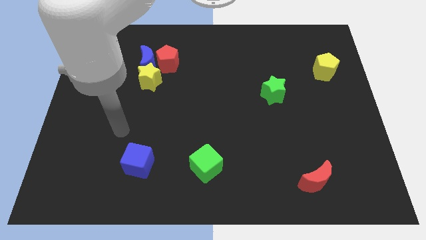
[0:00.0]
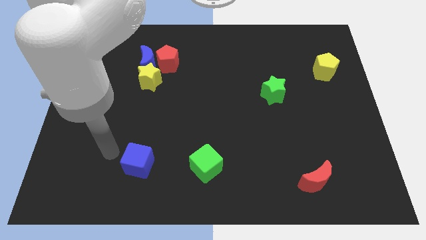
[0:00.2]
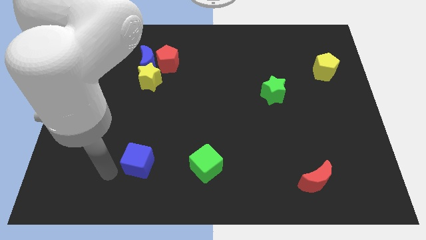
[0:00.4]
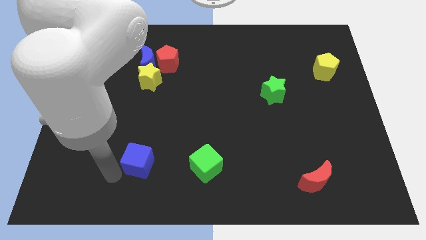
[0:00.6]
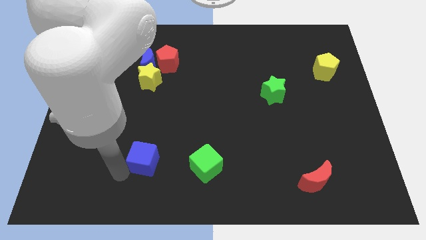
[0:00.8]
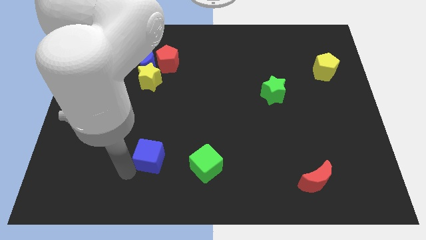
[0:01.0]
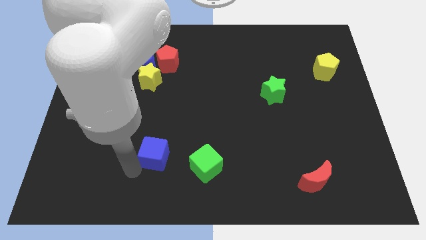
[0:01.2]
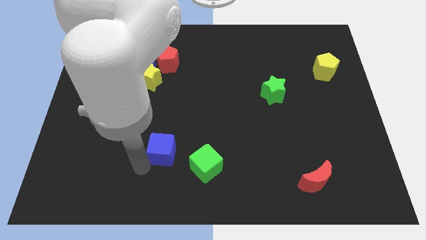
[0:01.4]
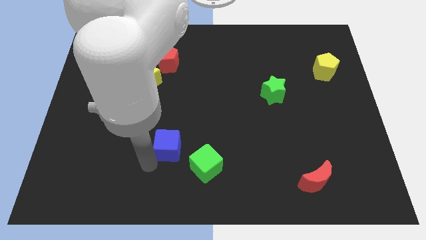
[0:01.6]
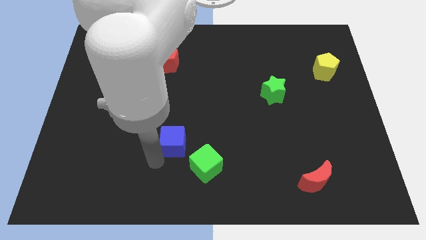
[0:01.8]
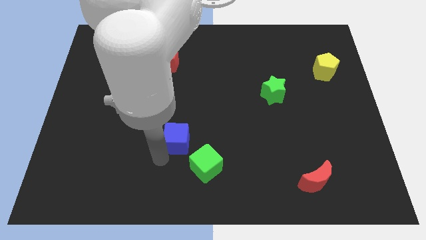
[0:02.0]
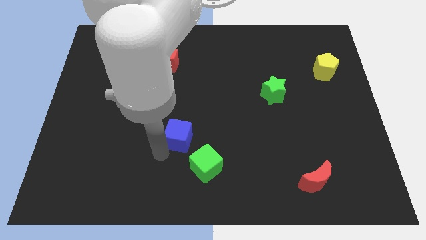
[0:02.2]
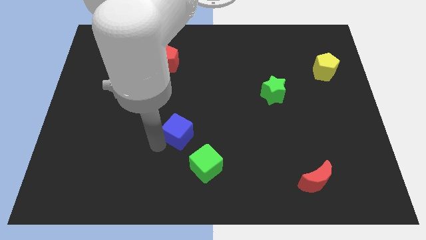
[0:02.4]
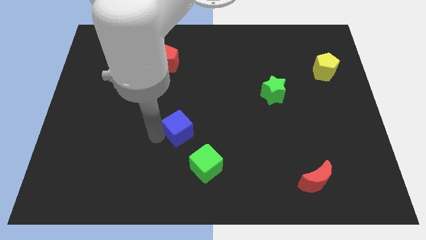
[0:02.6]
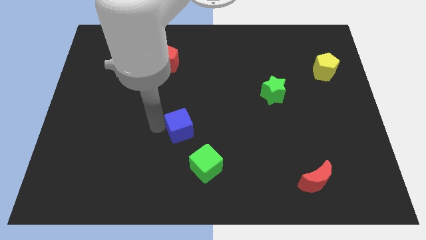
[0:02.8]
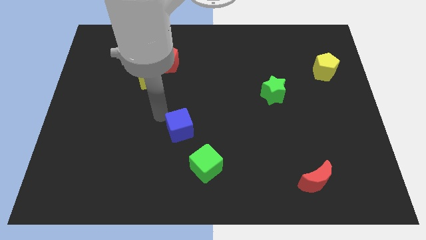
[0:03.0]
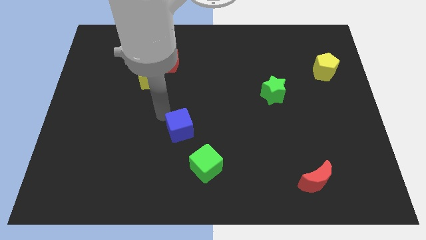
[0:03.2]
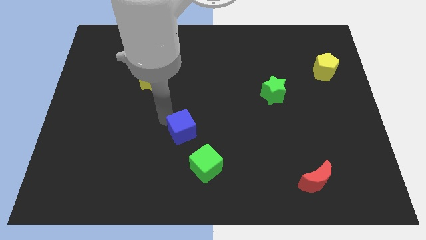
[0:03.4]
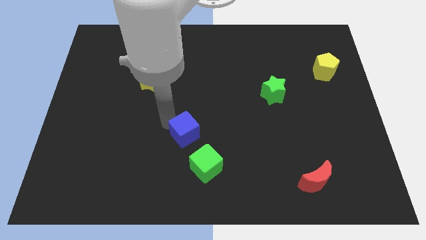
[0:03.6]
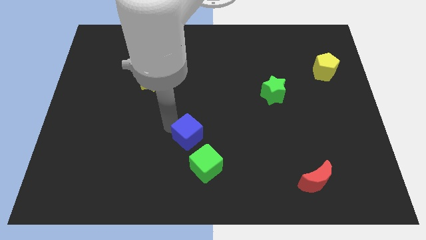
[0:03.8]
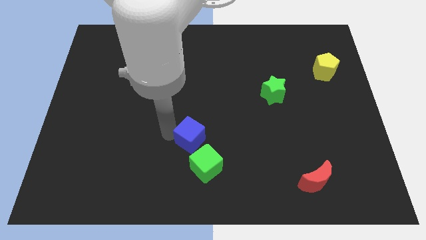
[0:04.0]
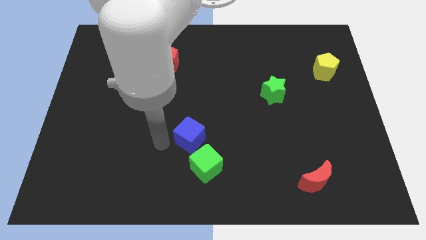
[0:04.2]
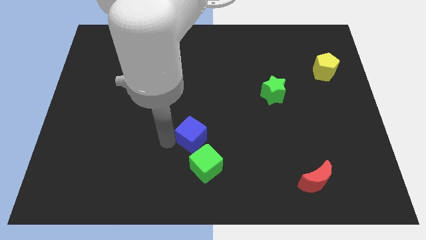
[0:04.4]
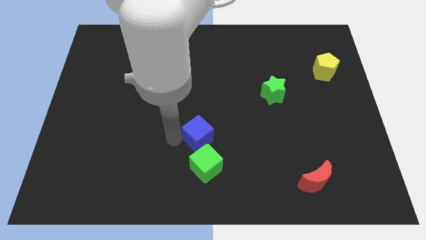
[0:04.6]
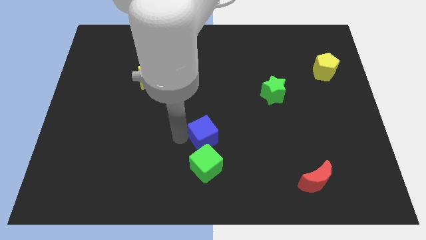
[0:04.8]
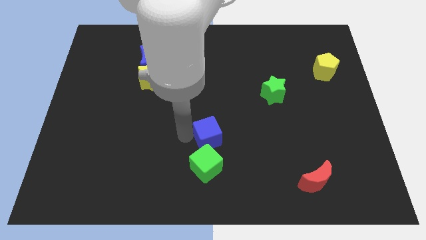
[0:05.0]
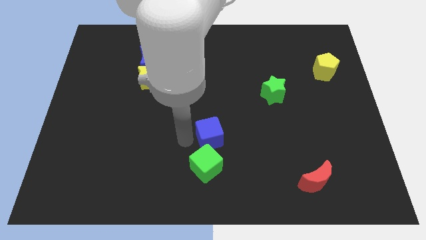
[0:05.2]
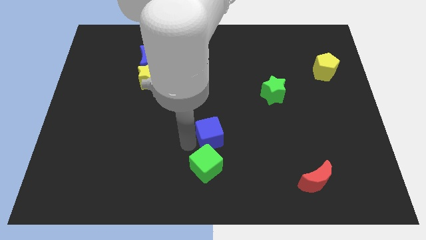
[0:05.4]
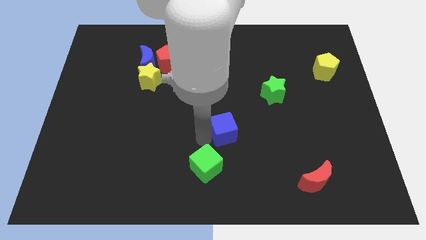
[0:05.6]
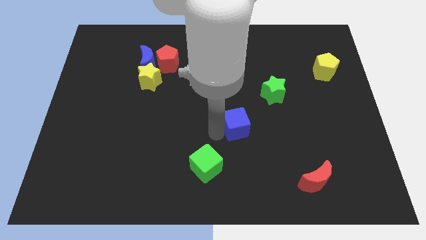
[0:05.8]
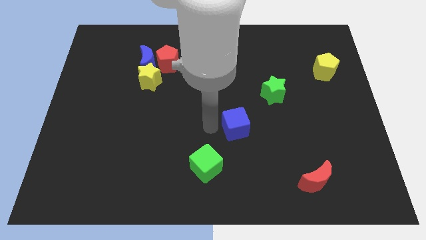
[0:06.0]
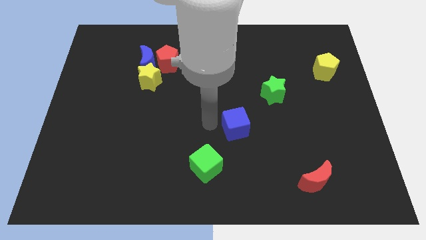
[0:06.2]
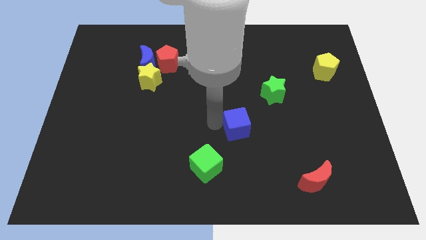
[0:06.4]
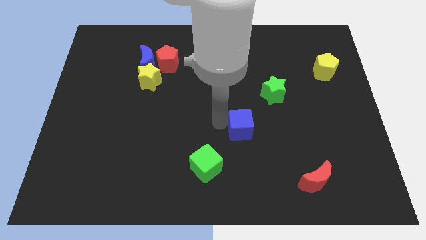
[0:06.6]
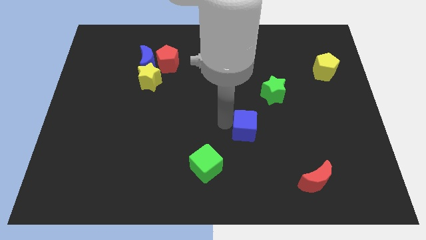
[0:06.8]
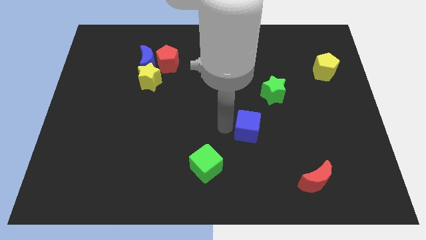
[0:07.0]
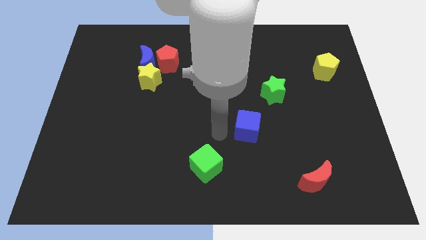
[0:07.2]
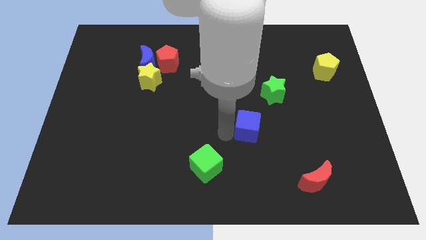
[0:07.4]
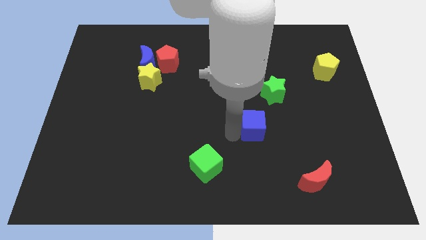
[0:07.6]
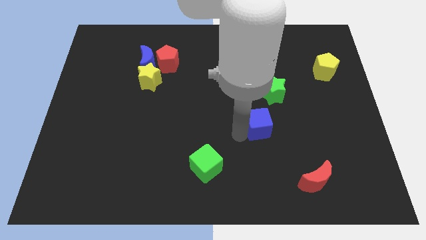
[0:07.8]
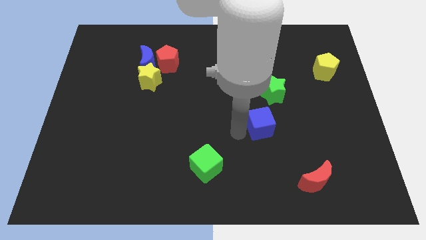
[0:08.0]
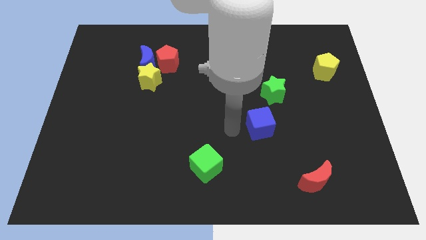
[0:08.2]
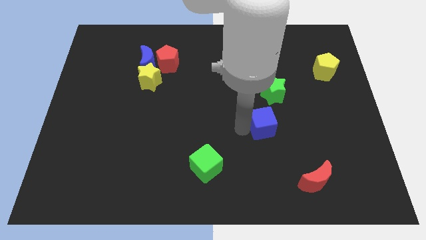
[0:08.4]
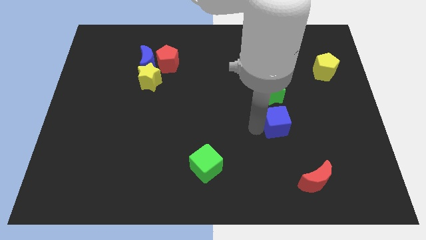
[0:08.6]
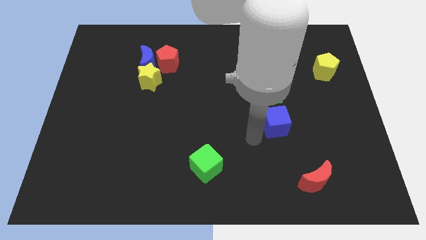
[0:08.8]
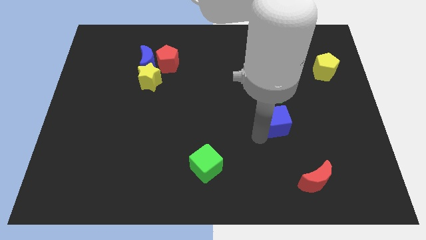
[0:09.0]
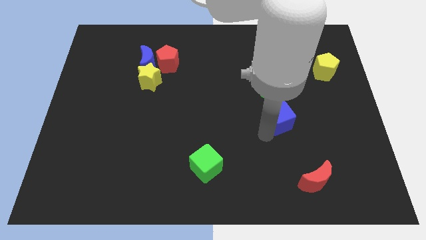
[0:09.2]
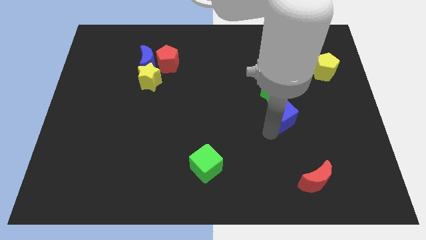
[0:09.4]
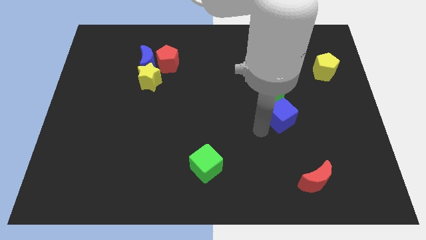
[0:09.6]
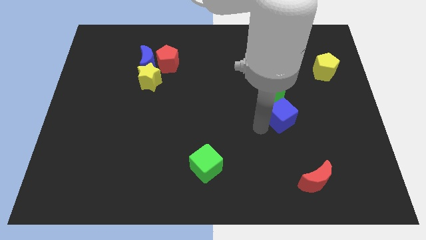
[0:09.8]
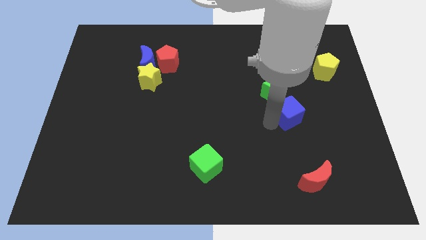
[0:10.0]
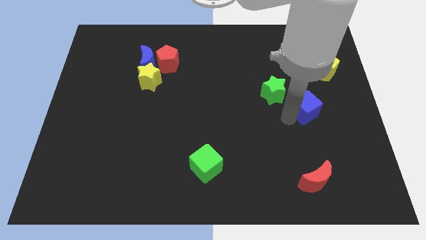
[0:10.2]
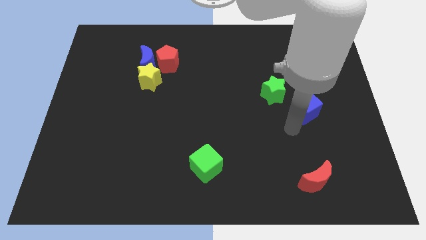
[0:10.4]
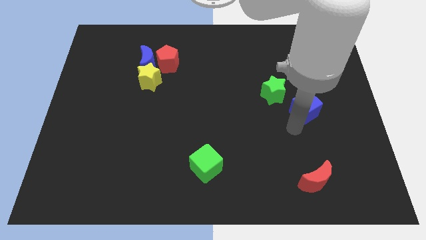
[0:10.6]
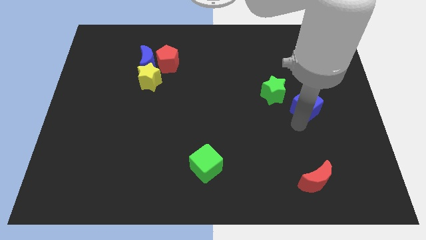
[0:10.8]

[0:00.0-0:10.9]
push the blue cube to the right side of the green star
